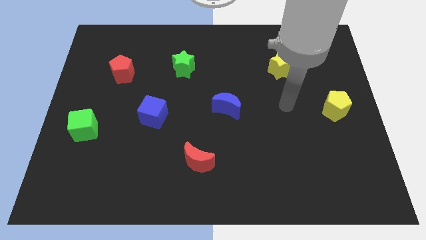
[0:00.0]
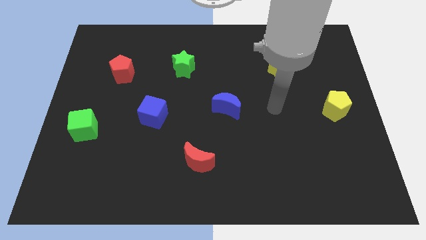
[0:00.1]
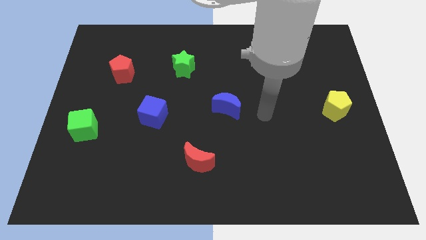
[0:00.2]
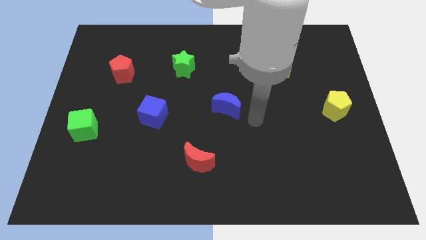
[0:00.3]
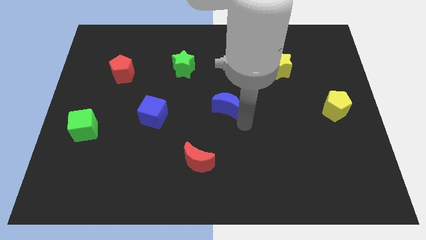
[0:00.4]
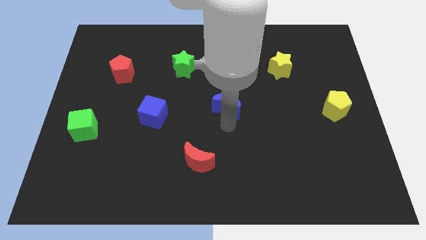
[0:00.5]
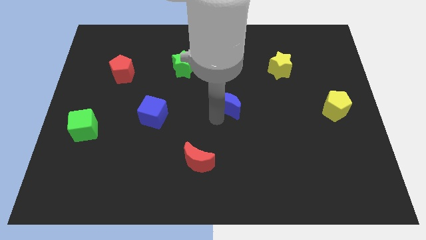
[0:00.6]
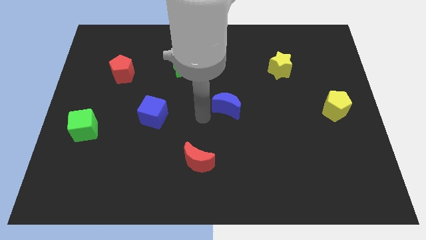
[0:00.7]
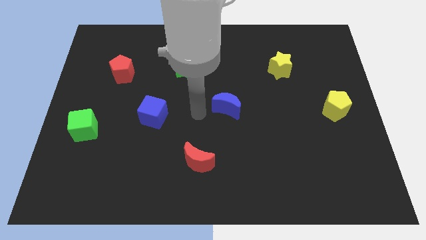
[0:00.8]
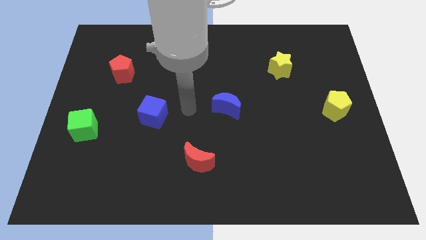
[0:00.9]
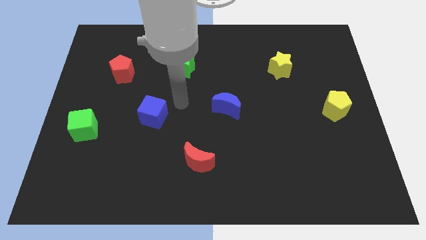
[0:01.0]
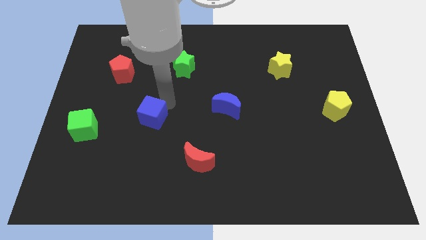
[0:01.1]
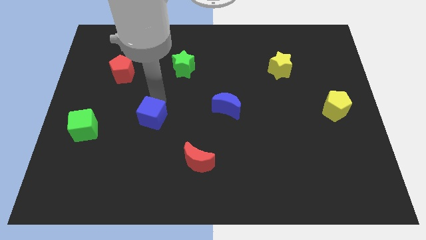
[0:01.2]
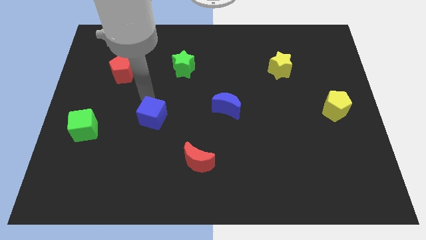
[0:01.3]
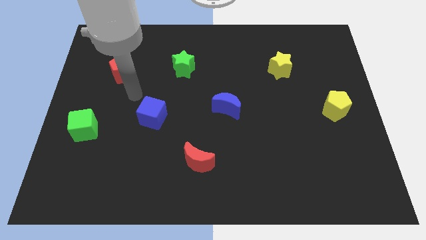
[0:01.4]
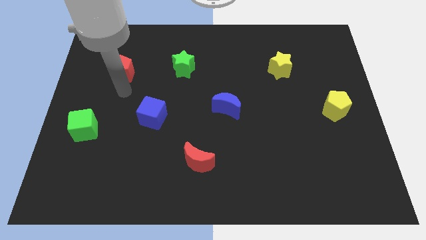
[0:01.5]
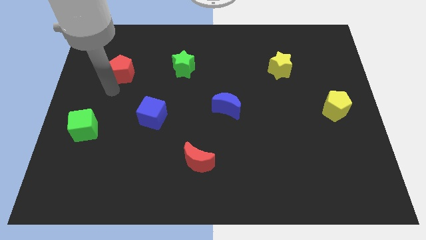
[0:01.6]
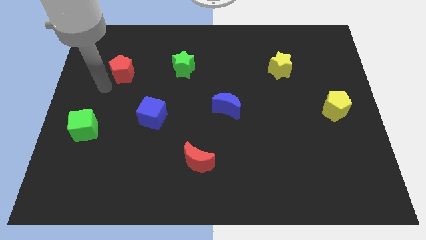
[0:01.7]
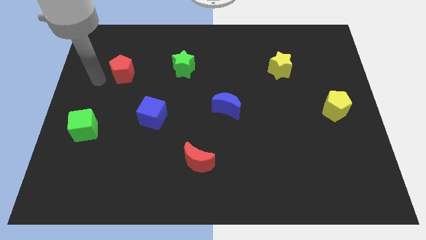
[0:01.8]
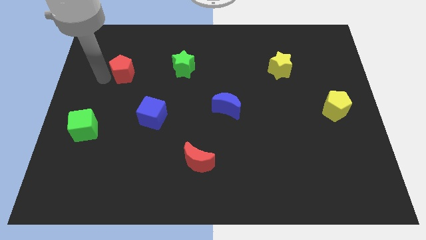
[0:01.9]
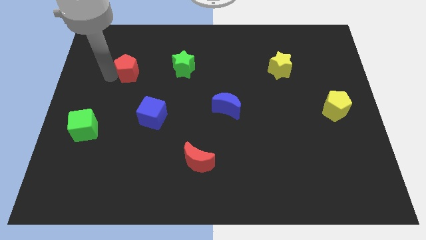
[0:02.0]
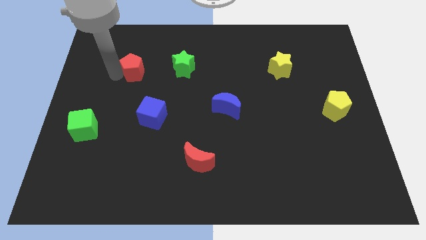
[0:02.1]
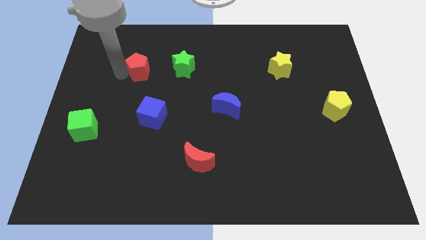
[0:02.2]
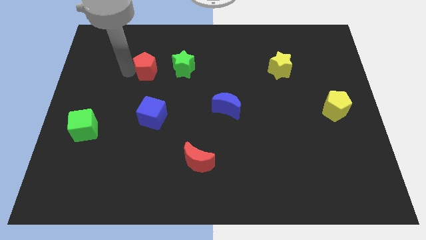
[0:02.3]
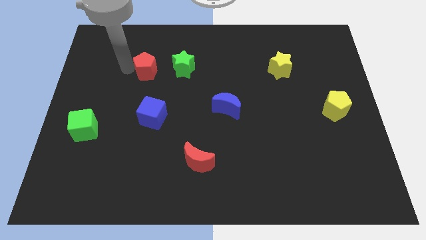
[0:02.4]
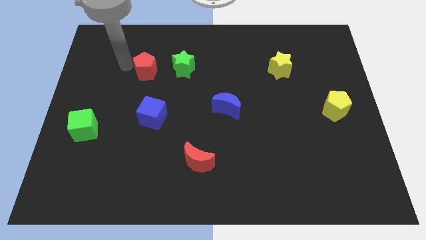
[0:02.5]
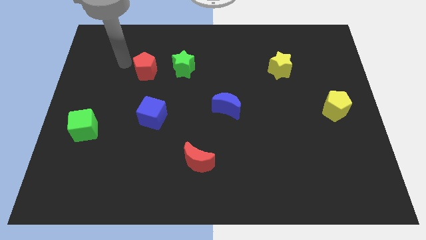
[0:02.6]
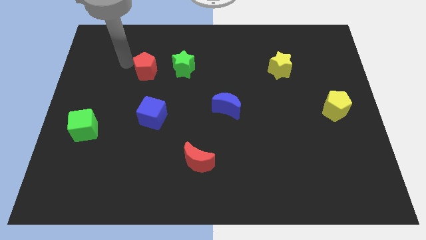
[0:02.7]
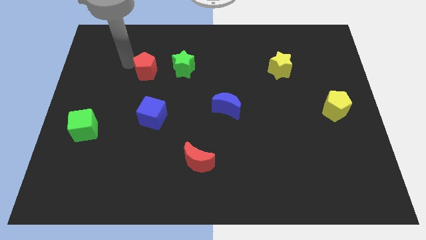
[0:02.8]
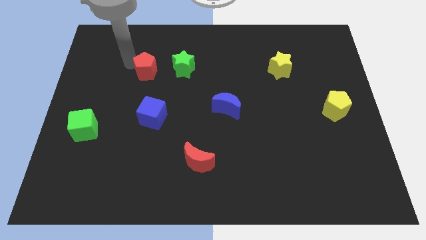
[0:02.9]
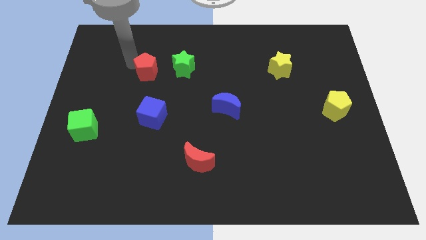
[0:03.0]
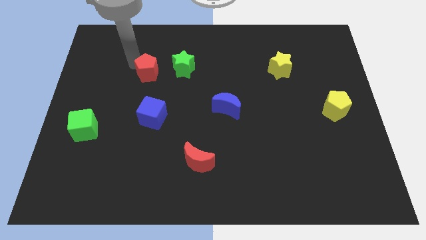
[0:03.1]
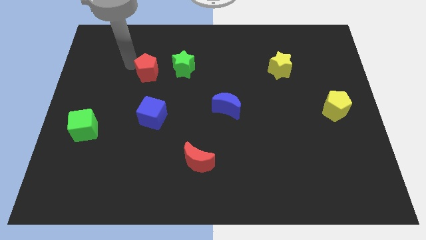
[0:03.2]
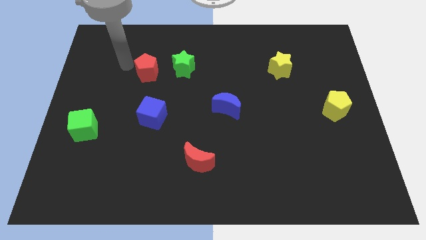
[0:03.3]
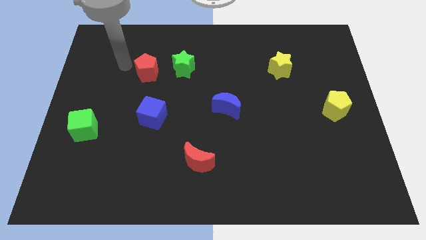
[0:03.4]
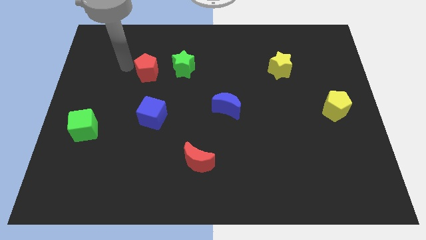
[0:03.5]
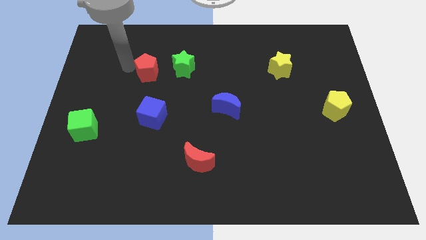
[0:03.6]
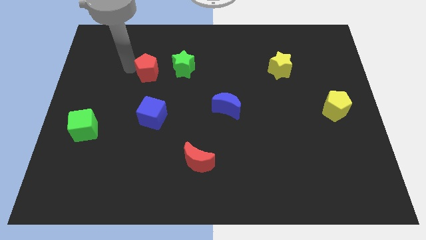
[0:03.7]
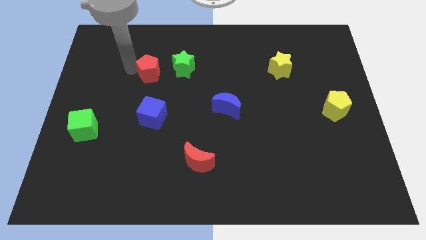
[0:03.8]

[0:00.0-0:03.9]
slide the red pentagon to the right a bit

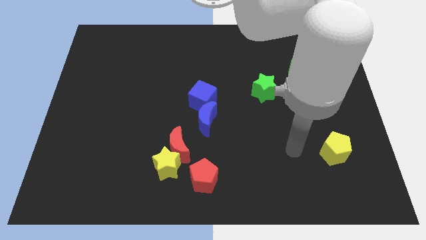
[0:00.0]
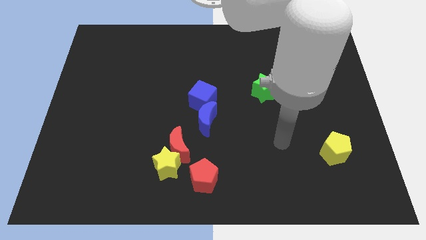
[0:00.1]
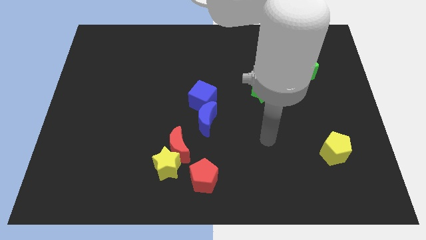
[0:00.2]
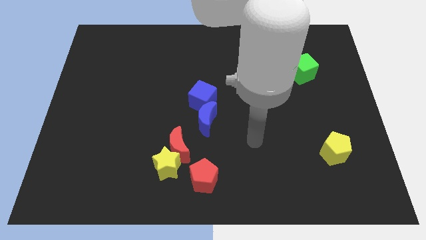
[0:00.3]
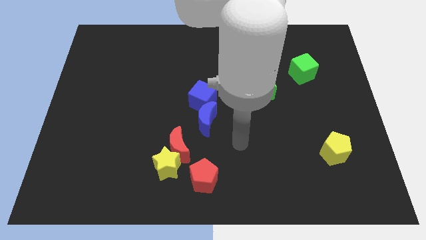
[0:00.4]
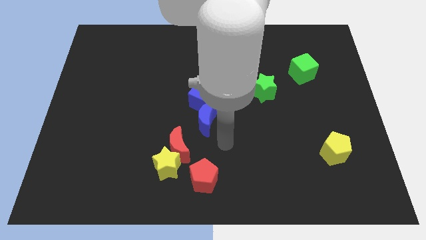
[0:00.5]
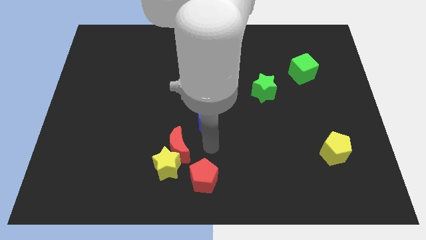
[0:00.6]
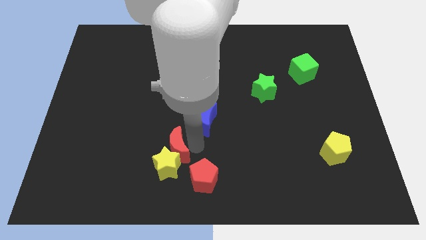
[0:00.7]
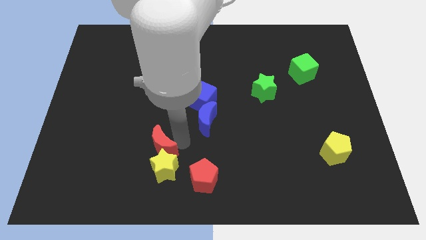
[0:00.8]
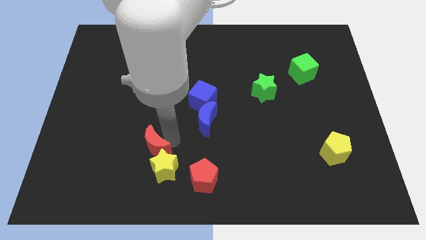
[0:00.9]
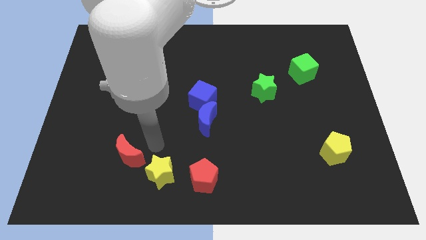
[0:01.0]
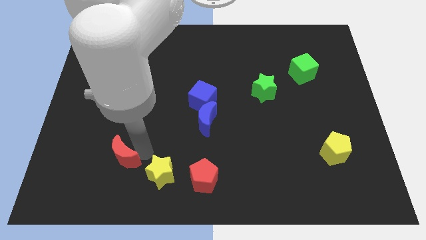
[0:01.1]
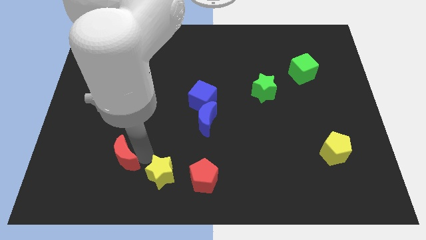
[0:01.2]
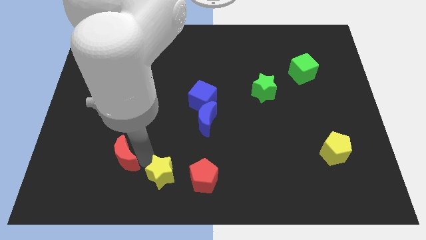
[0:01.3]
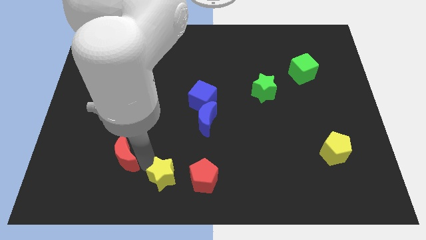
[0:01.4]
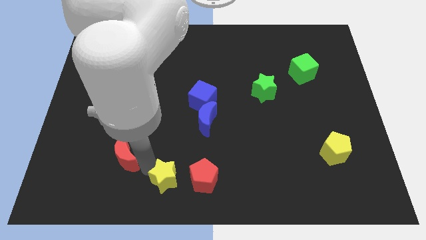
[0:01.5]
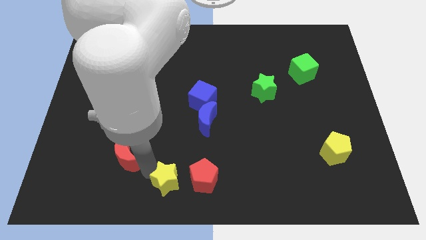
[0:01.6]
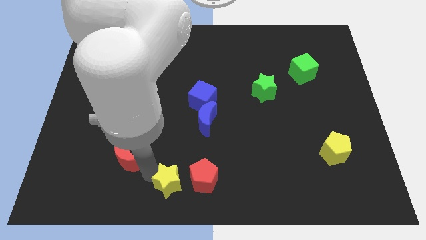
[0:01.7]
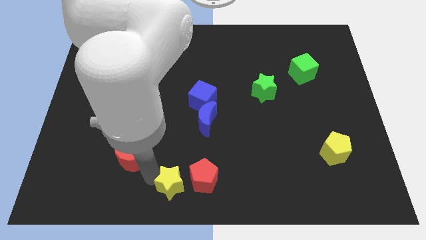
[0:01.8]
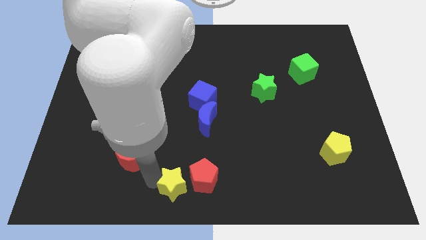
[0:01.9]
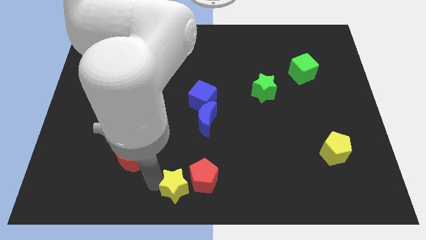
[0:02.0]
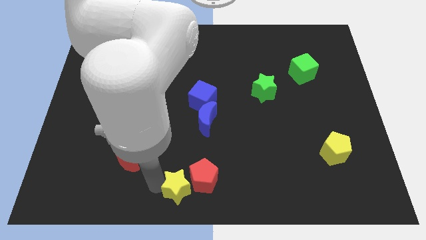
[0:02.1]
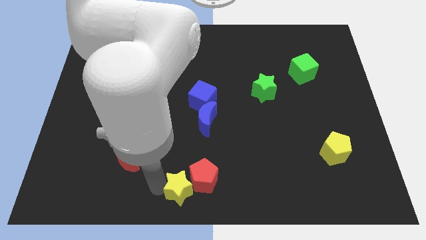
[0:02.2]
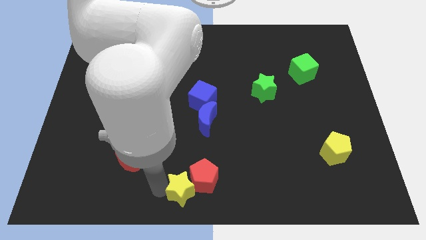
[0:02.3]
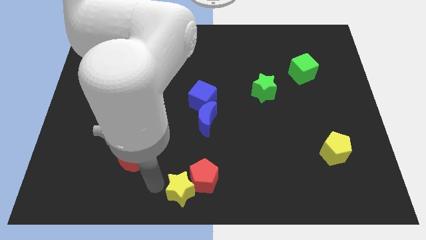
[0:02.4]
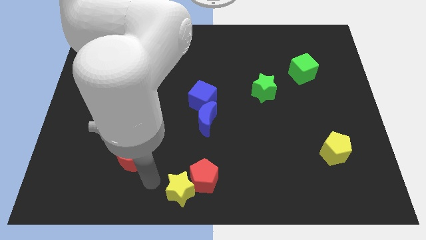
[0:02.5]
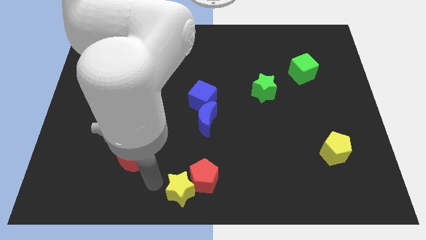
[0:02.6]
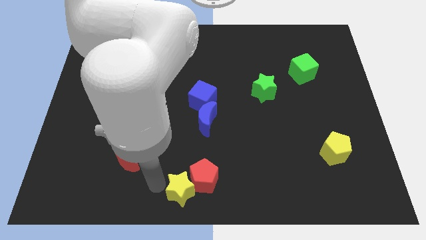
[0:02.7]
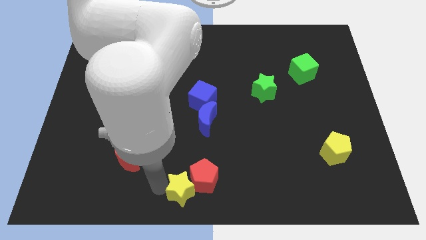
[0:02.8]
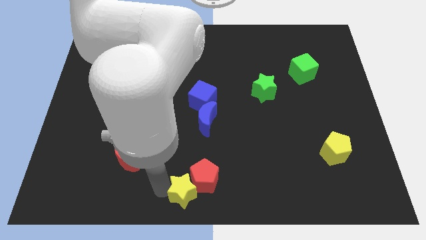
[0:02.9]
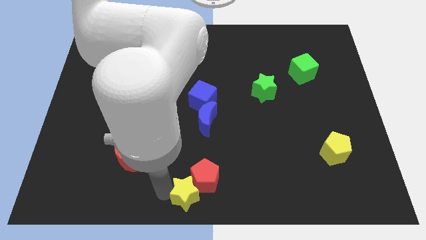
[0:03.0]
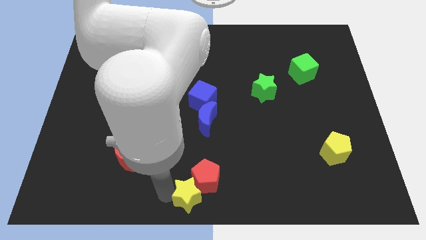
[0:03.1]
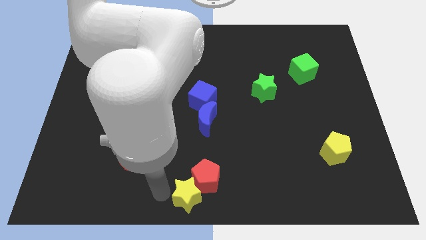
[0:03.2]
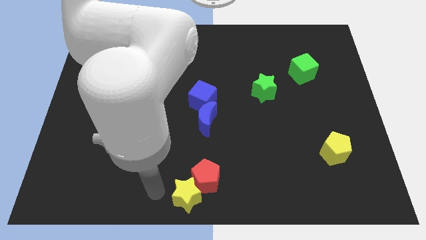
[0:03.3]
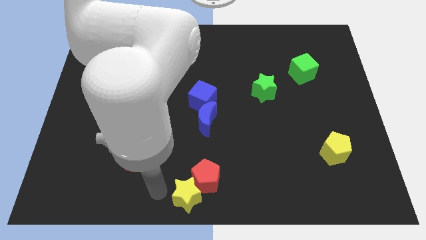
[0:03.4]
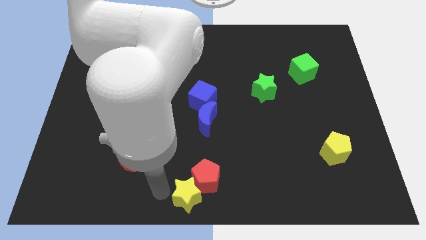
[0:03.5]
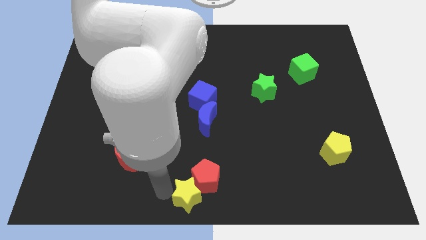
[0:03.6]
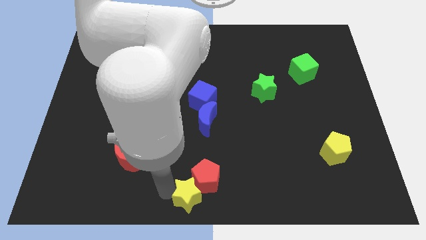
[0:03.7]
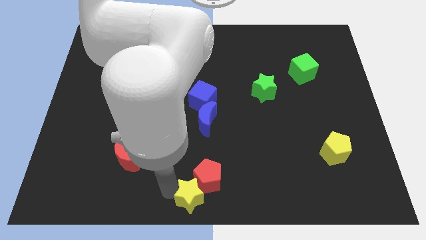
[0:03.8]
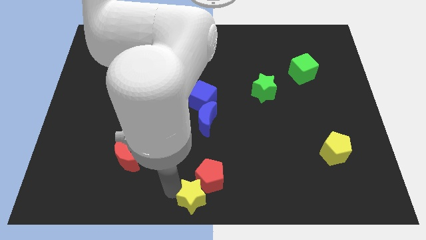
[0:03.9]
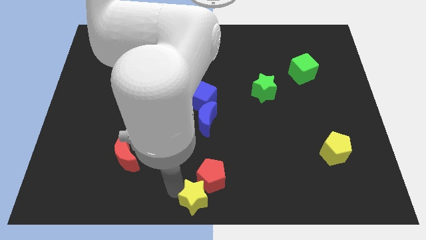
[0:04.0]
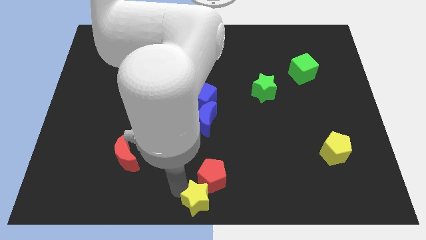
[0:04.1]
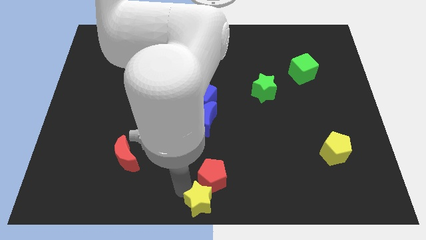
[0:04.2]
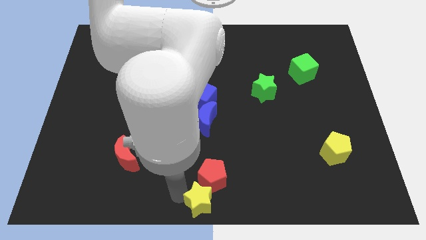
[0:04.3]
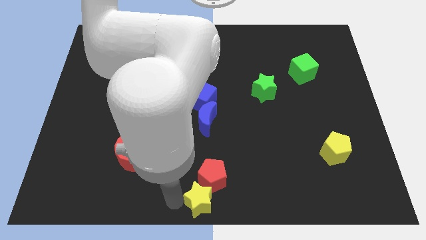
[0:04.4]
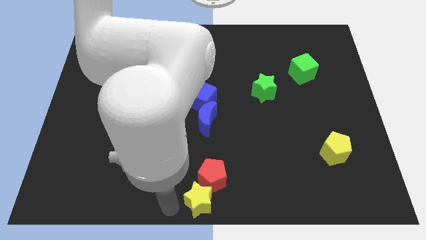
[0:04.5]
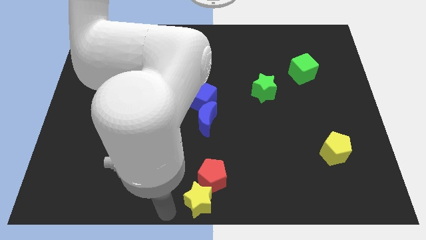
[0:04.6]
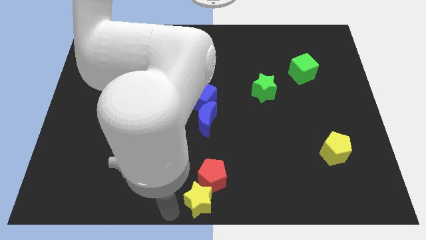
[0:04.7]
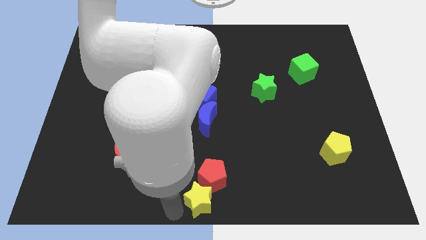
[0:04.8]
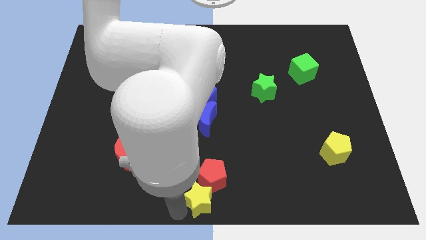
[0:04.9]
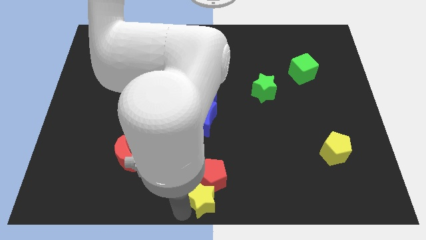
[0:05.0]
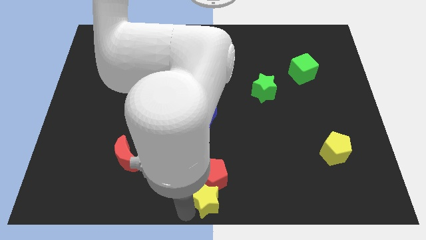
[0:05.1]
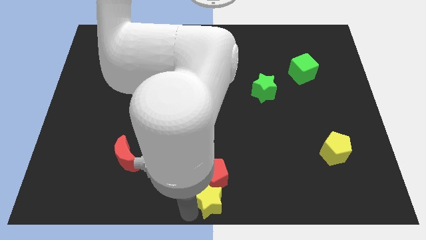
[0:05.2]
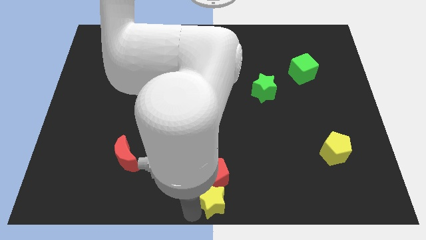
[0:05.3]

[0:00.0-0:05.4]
move the yellow star to the right a little
